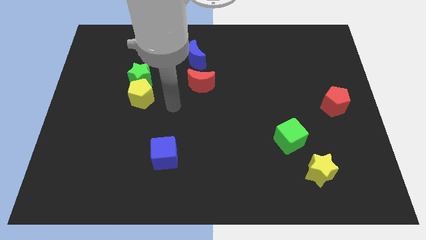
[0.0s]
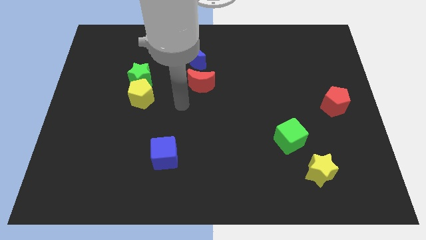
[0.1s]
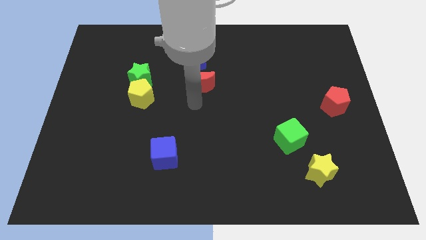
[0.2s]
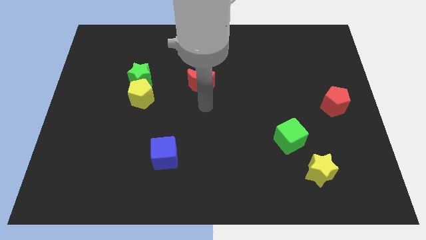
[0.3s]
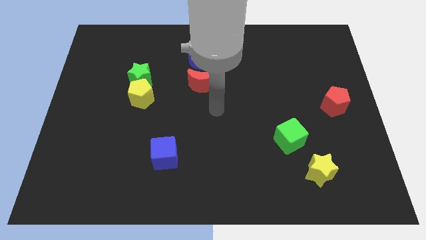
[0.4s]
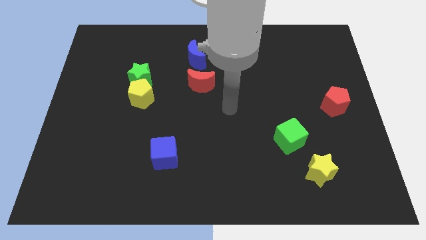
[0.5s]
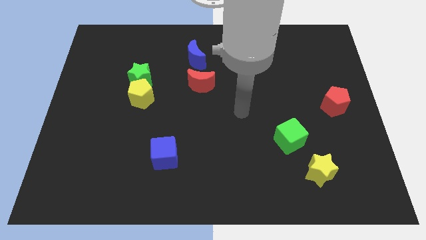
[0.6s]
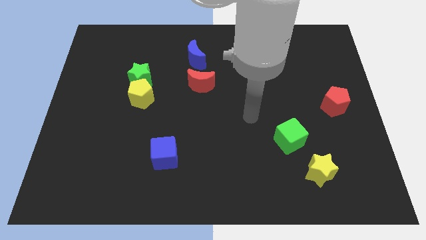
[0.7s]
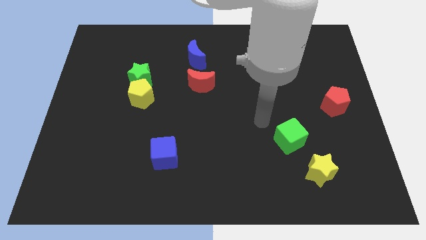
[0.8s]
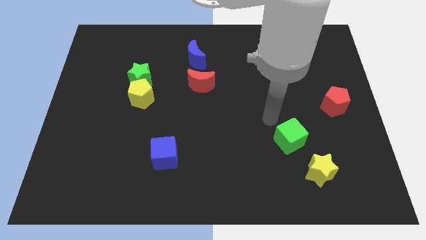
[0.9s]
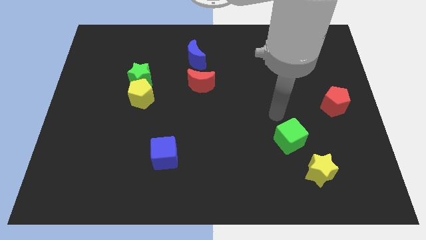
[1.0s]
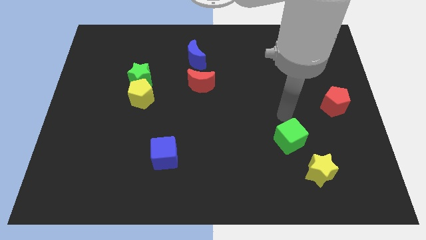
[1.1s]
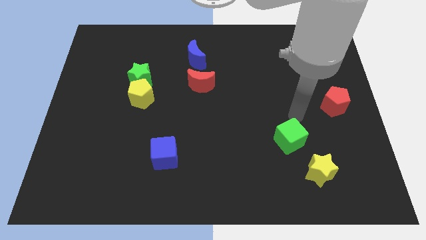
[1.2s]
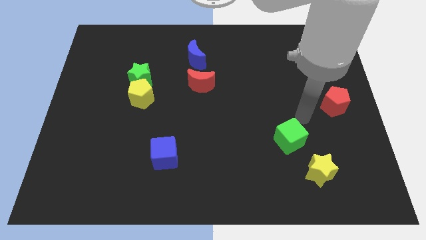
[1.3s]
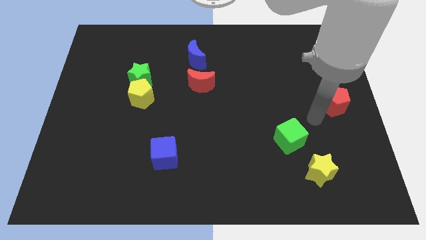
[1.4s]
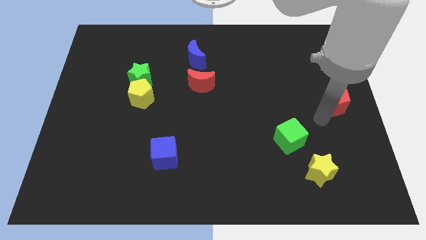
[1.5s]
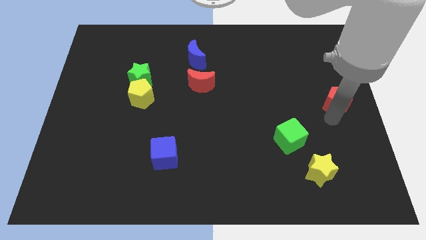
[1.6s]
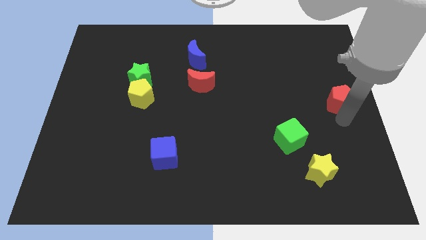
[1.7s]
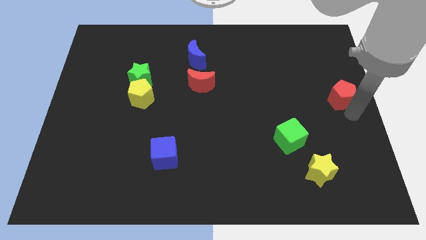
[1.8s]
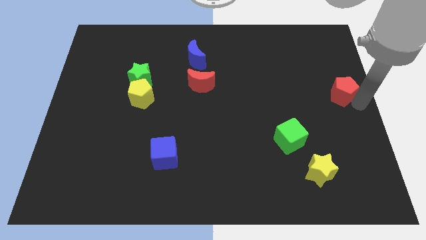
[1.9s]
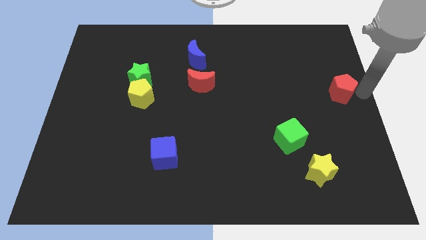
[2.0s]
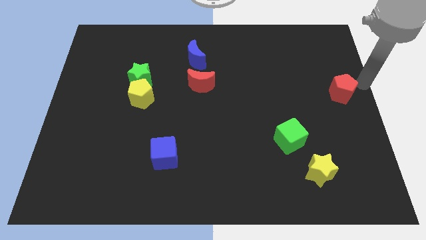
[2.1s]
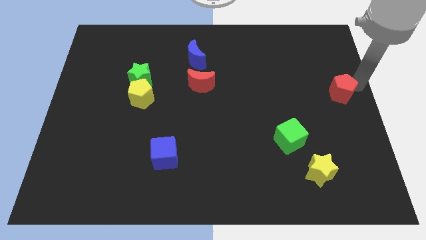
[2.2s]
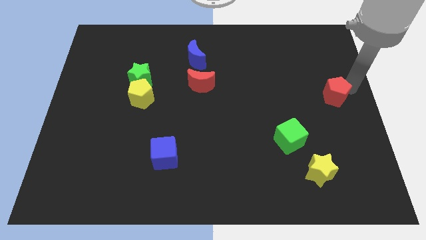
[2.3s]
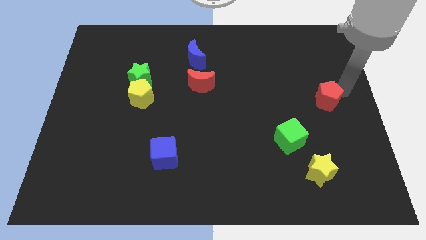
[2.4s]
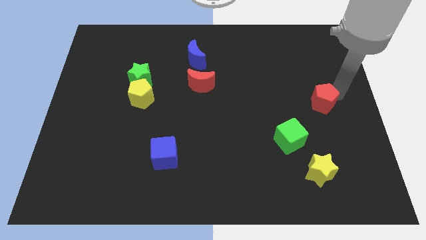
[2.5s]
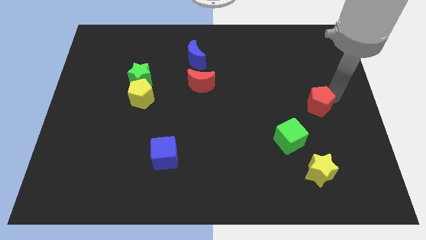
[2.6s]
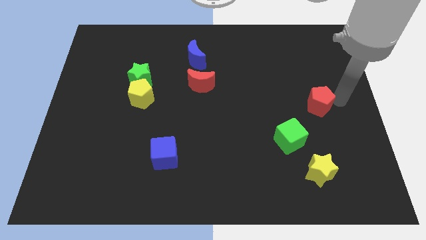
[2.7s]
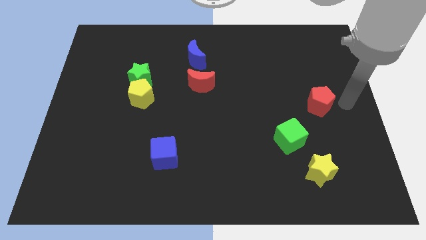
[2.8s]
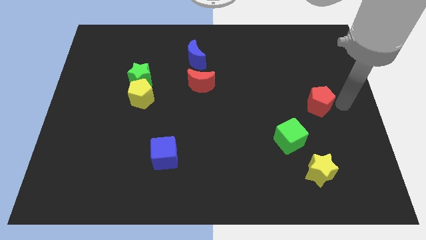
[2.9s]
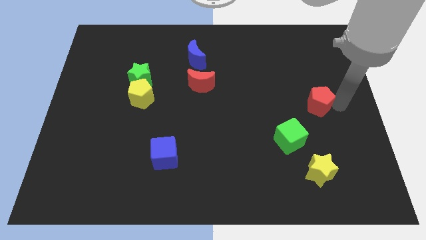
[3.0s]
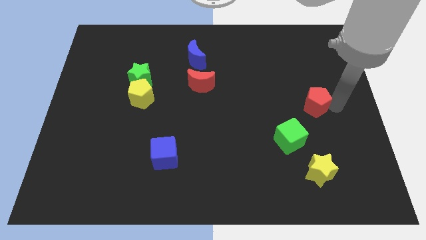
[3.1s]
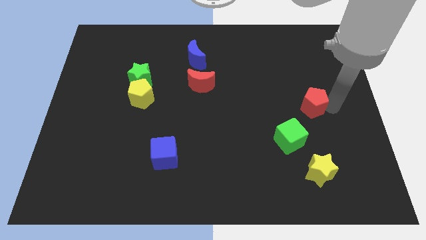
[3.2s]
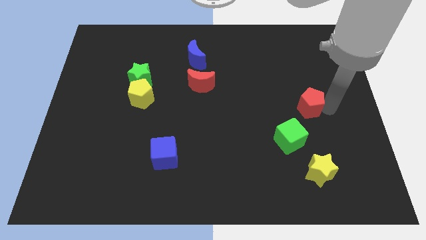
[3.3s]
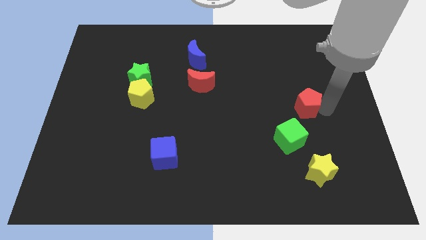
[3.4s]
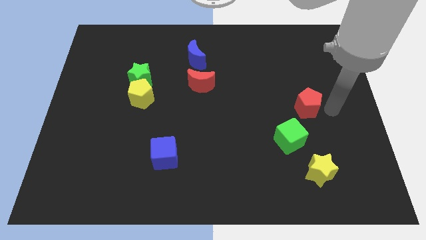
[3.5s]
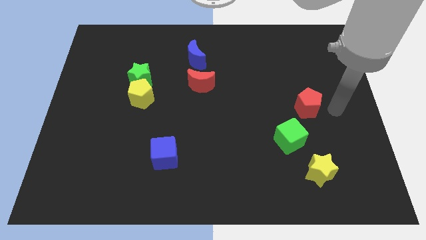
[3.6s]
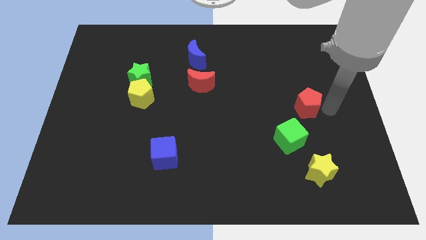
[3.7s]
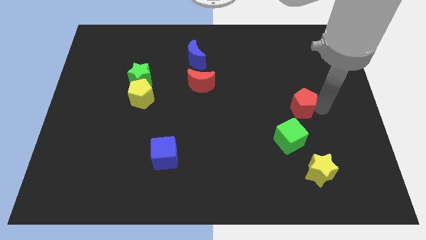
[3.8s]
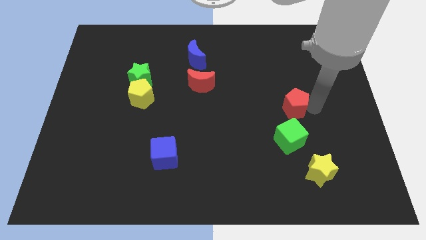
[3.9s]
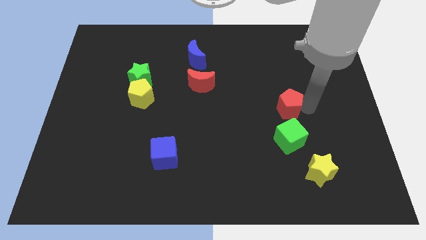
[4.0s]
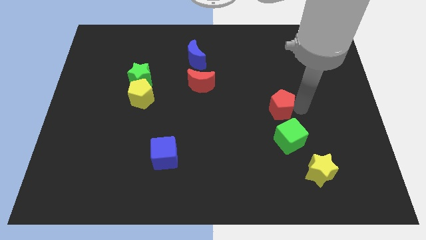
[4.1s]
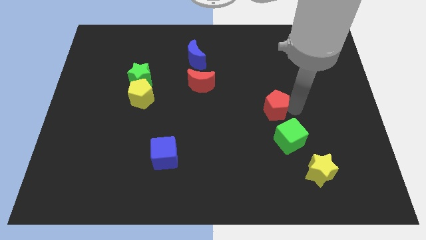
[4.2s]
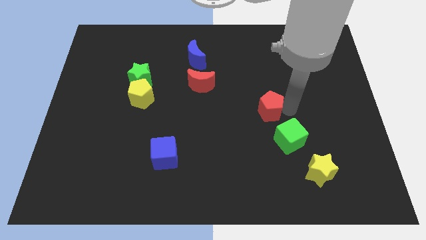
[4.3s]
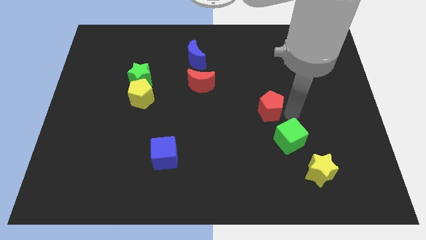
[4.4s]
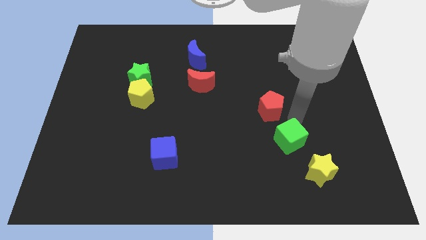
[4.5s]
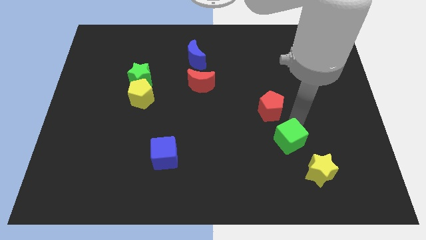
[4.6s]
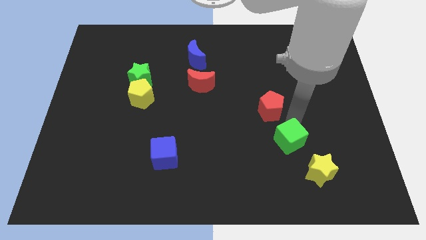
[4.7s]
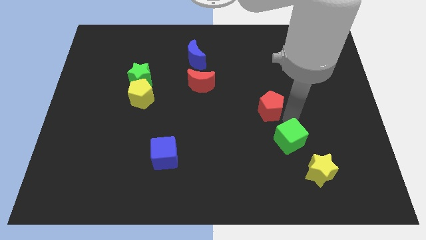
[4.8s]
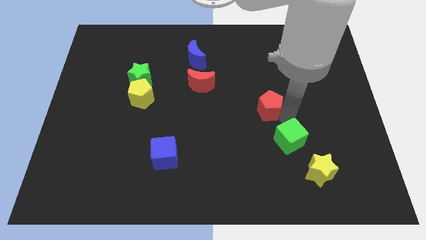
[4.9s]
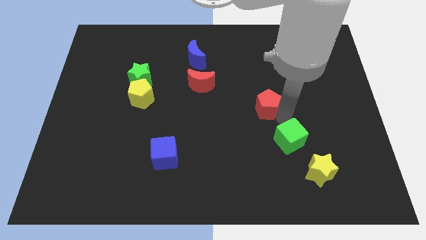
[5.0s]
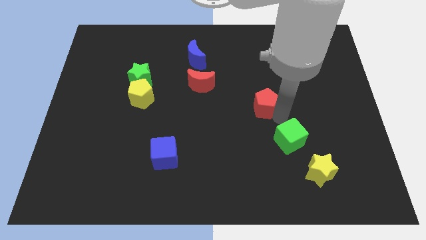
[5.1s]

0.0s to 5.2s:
move the red pentagon to the center of the board

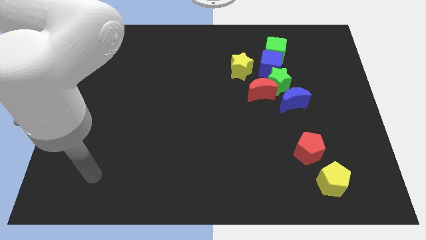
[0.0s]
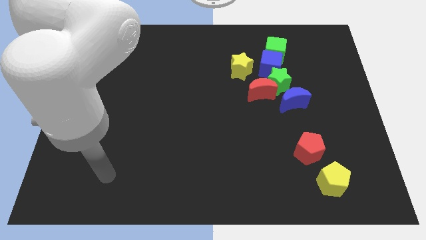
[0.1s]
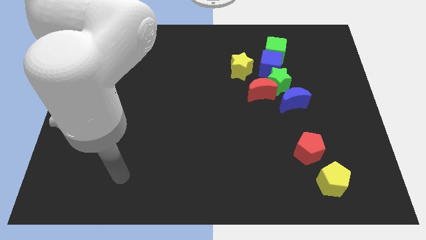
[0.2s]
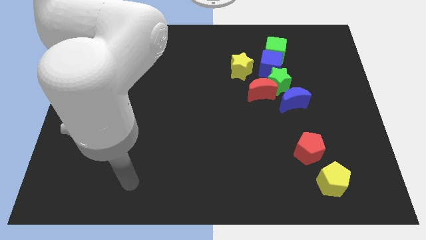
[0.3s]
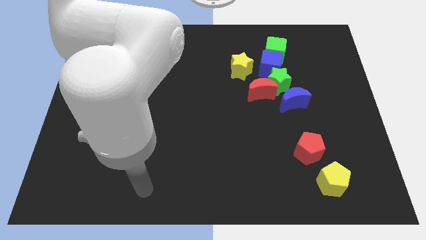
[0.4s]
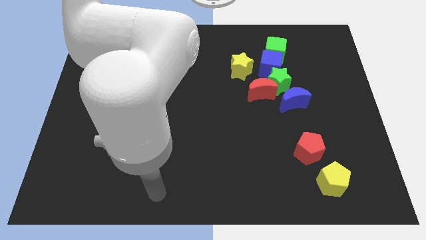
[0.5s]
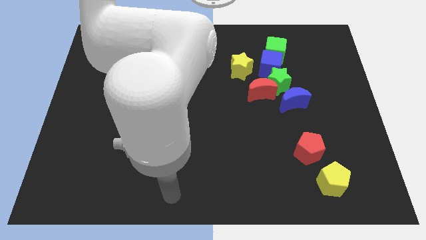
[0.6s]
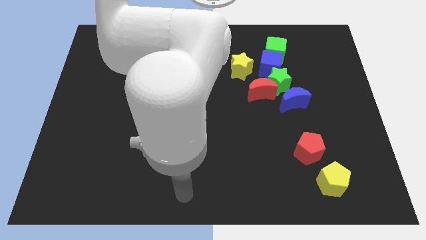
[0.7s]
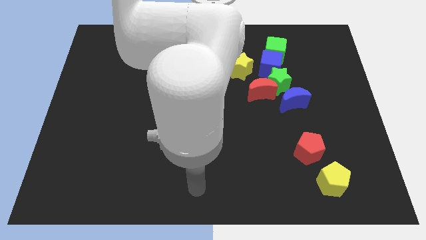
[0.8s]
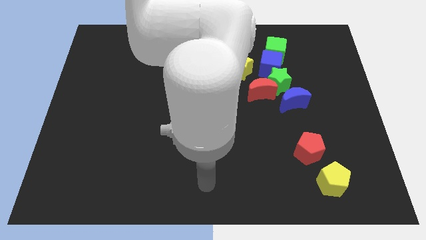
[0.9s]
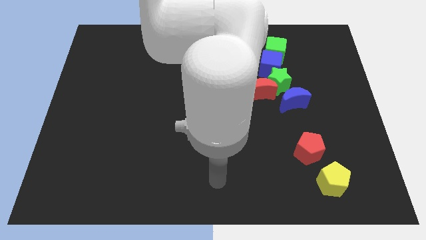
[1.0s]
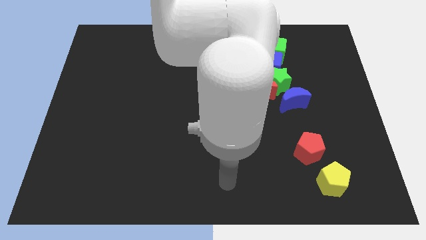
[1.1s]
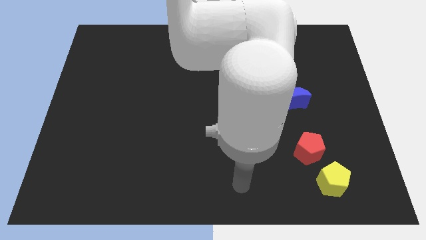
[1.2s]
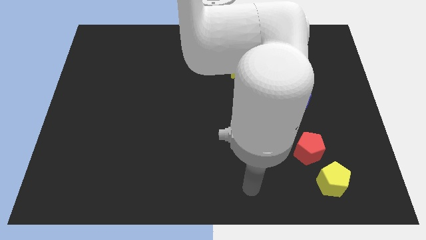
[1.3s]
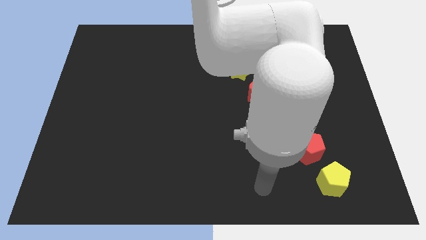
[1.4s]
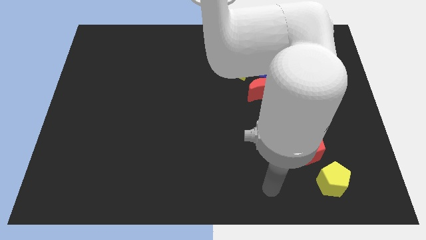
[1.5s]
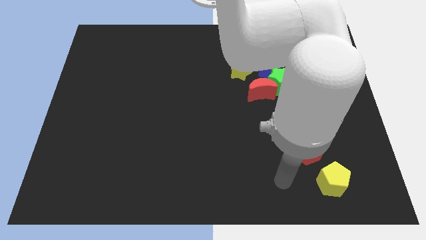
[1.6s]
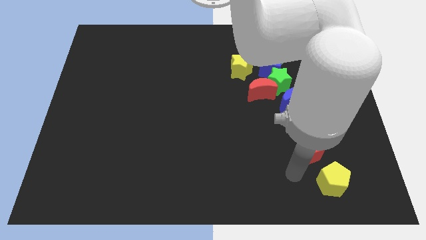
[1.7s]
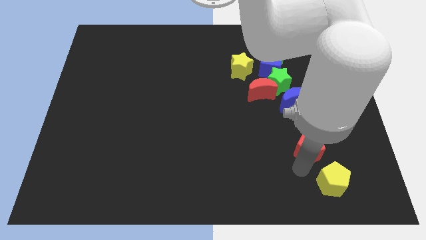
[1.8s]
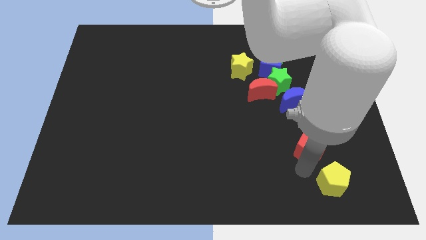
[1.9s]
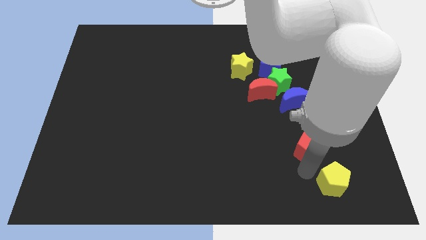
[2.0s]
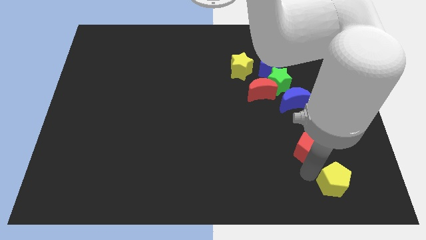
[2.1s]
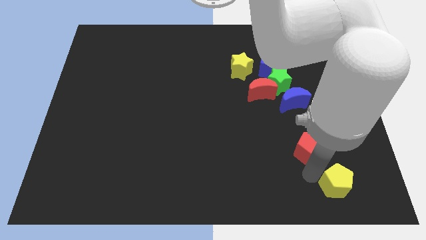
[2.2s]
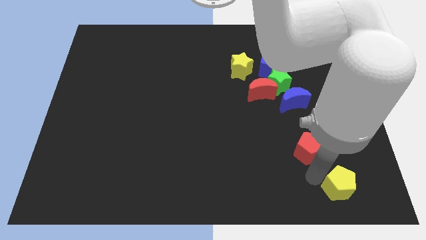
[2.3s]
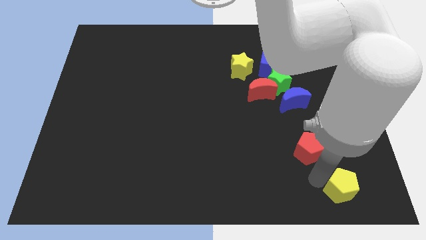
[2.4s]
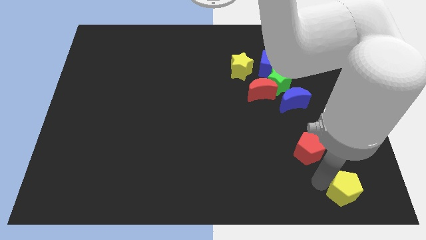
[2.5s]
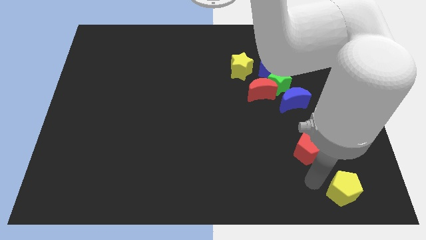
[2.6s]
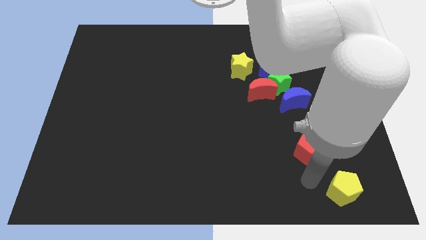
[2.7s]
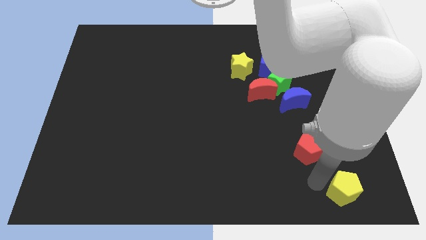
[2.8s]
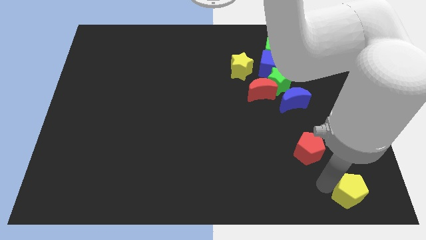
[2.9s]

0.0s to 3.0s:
move the yellow pentagon to the bottom right
